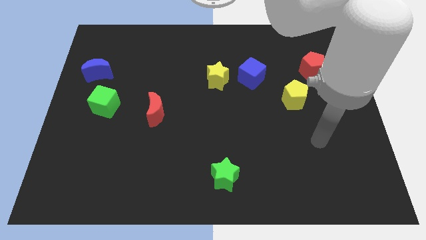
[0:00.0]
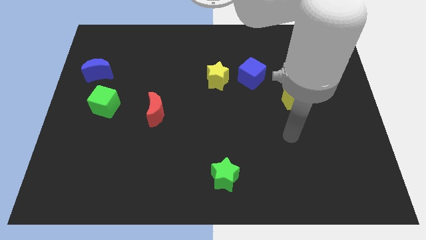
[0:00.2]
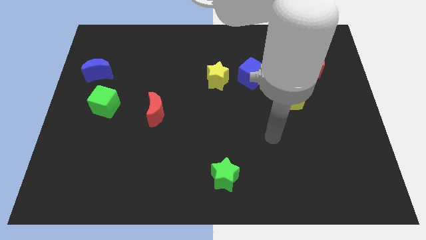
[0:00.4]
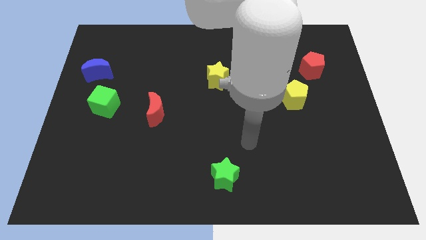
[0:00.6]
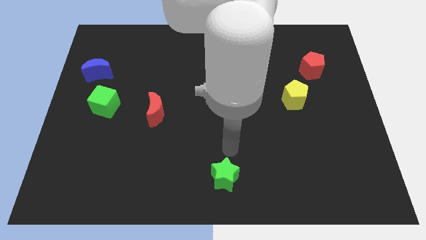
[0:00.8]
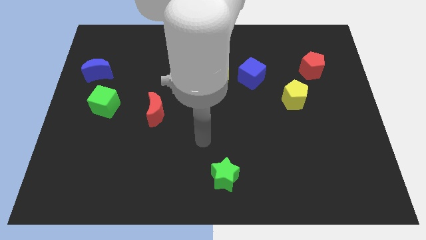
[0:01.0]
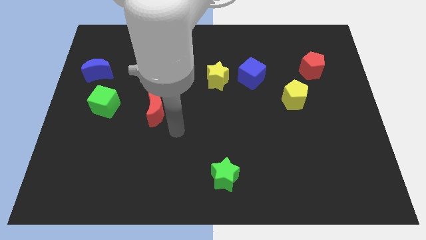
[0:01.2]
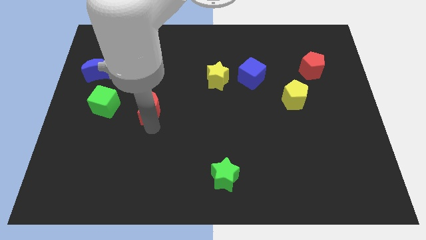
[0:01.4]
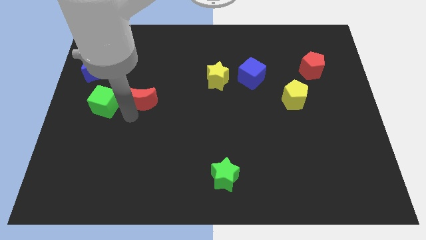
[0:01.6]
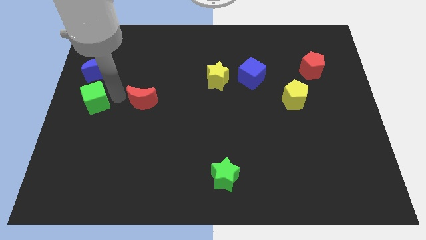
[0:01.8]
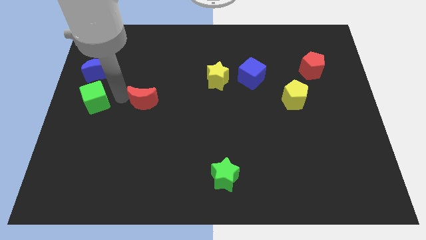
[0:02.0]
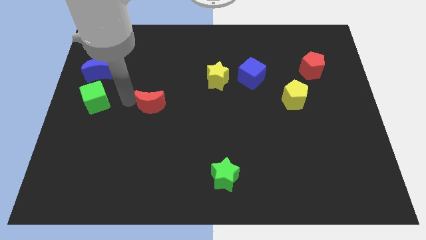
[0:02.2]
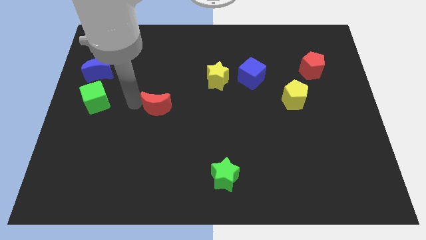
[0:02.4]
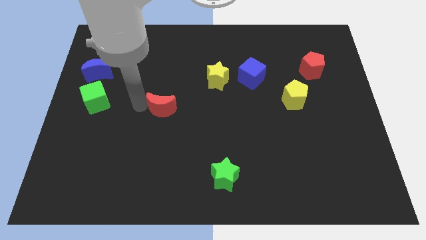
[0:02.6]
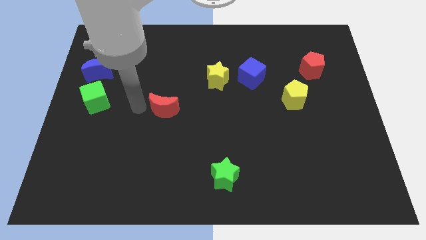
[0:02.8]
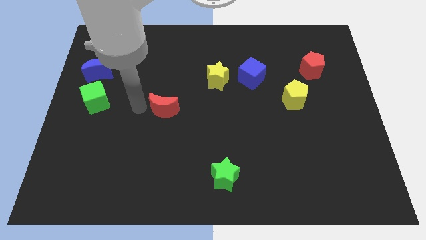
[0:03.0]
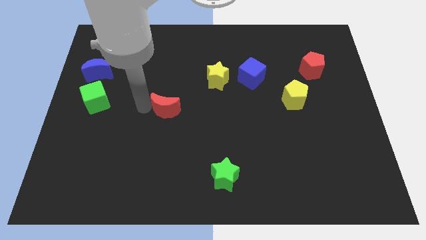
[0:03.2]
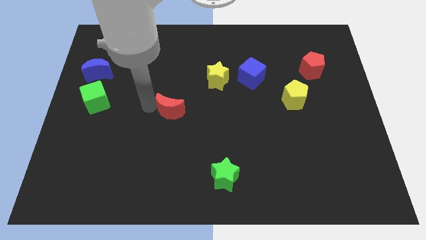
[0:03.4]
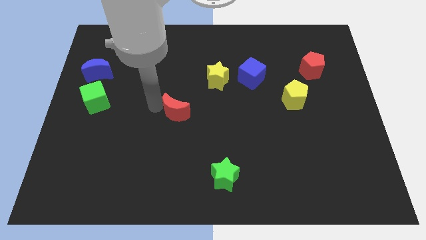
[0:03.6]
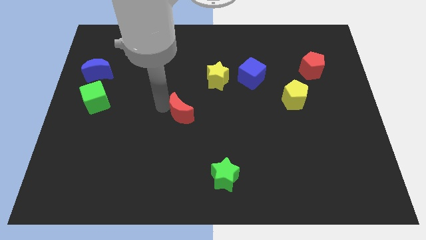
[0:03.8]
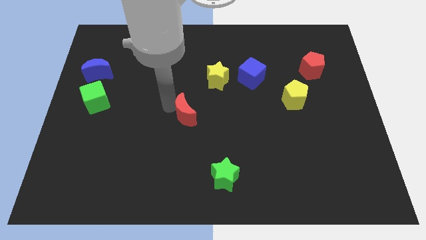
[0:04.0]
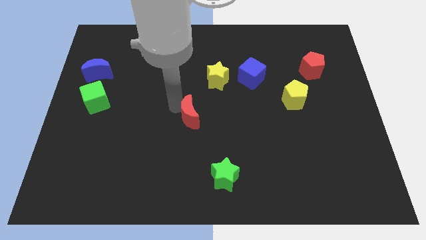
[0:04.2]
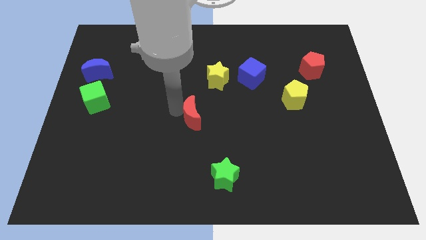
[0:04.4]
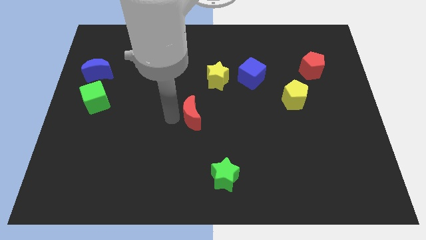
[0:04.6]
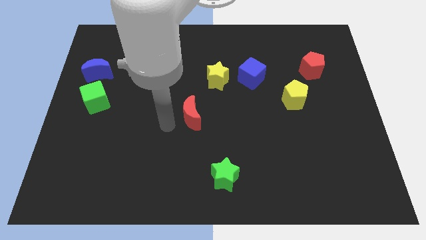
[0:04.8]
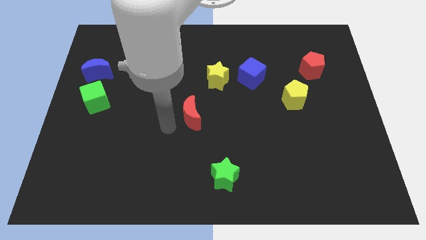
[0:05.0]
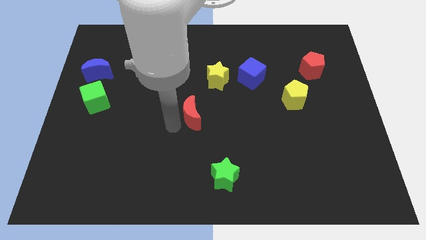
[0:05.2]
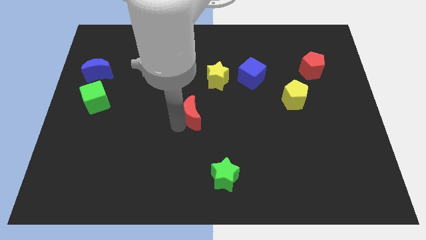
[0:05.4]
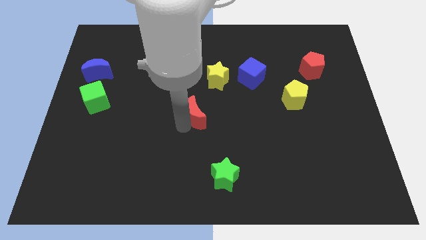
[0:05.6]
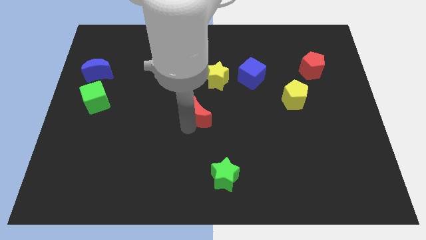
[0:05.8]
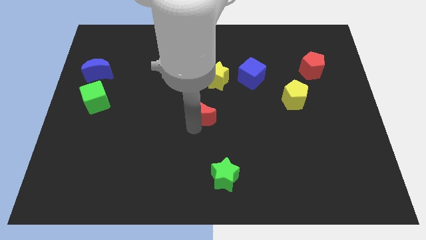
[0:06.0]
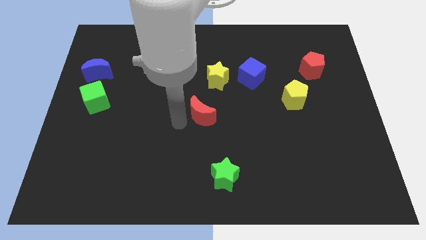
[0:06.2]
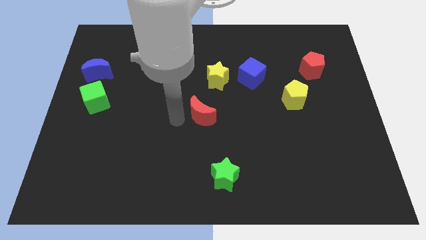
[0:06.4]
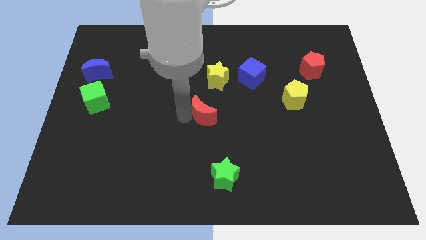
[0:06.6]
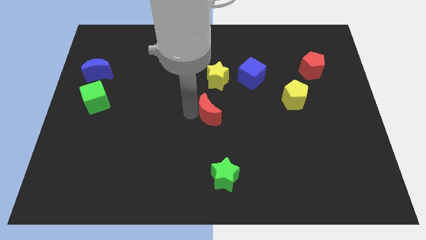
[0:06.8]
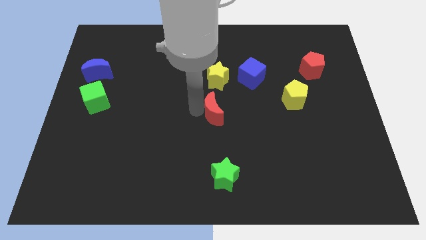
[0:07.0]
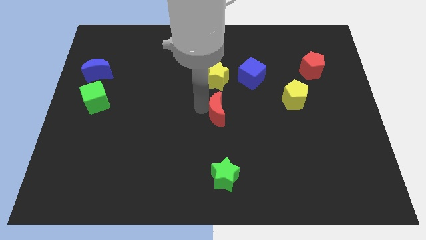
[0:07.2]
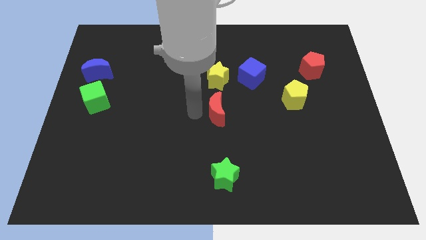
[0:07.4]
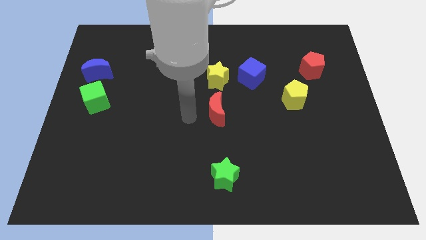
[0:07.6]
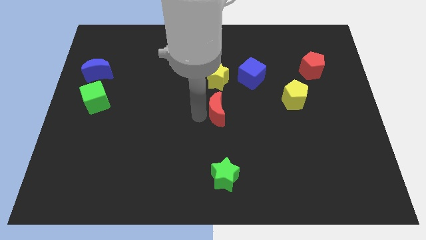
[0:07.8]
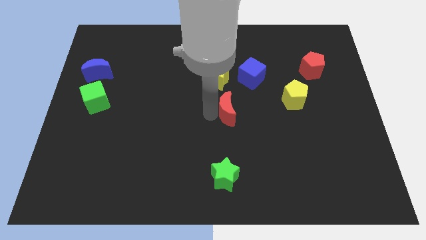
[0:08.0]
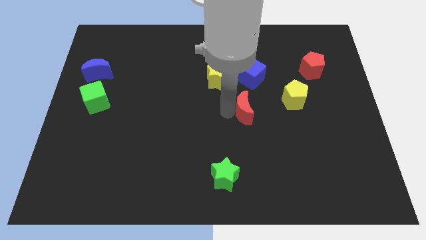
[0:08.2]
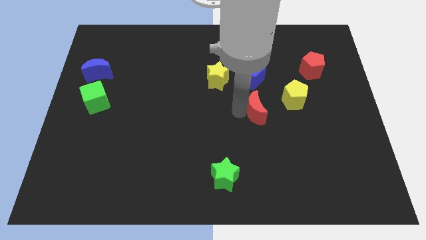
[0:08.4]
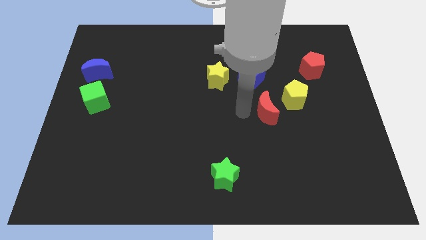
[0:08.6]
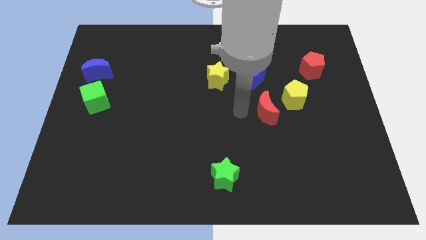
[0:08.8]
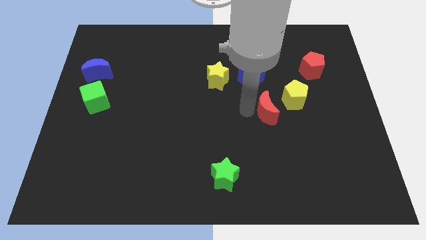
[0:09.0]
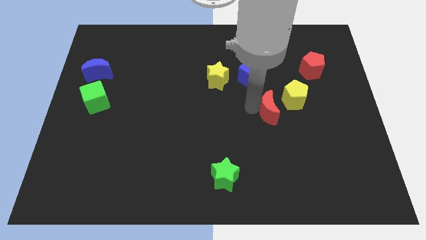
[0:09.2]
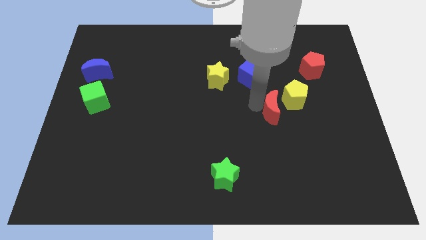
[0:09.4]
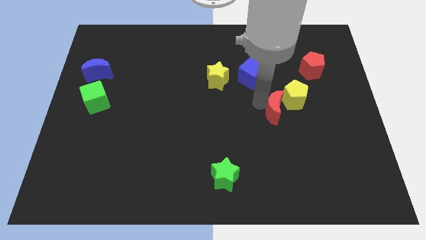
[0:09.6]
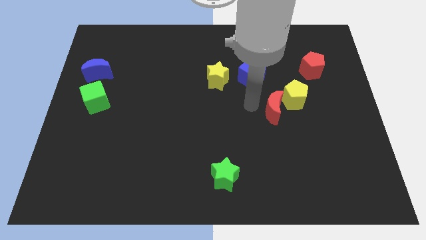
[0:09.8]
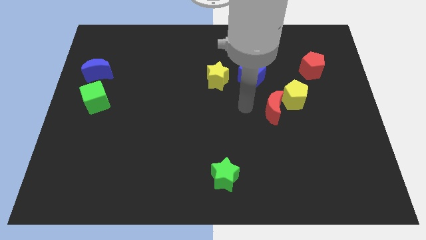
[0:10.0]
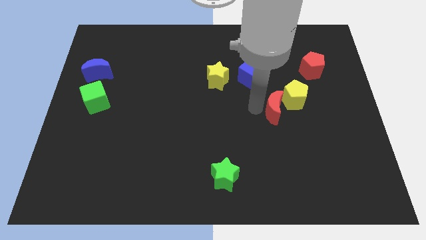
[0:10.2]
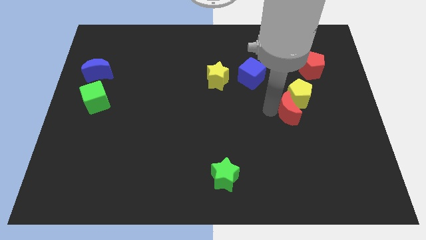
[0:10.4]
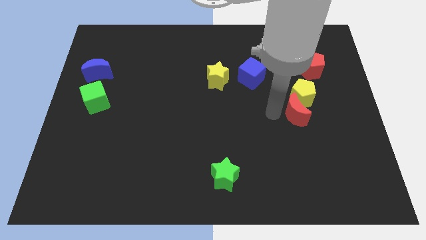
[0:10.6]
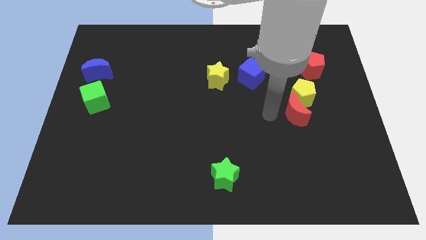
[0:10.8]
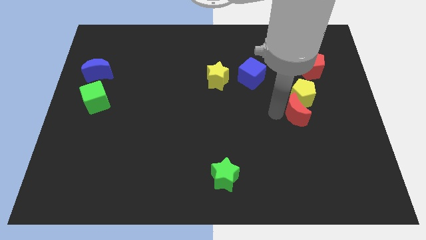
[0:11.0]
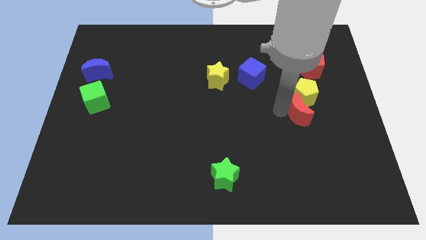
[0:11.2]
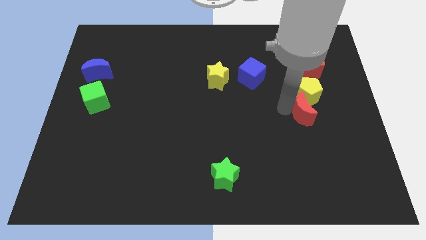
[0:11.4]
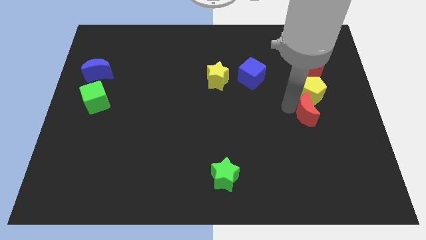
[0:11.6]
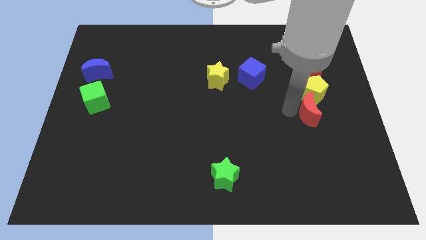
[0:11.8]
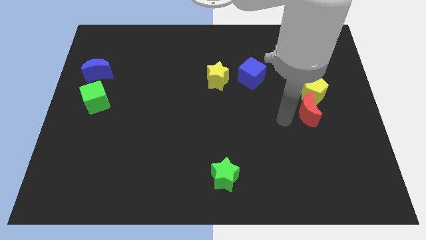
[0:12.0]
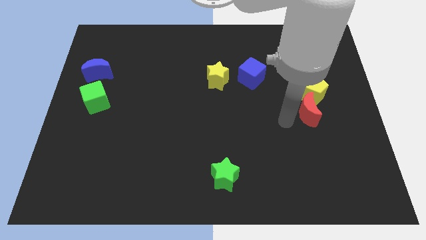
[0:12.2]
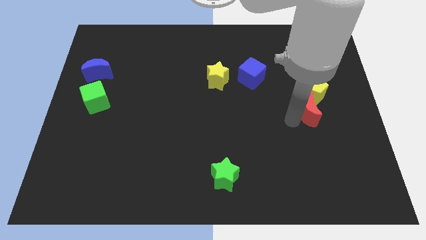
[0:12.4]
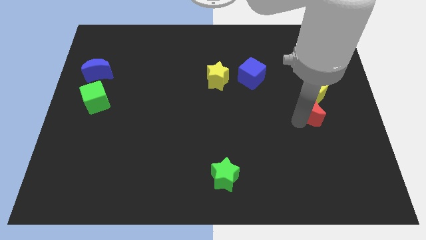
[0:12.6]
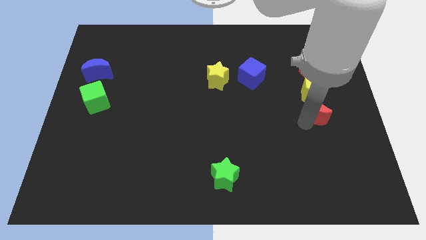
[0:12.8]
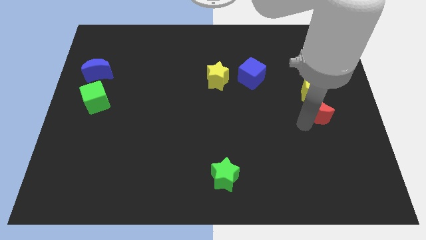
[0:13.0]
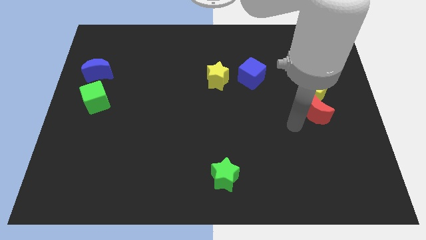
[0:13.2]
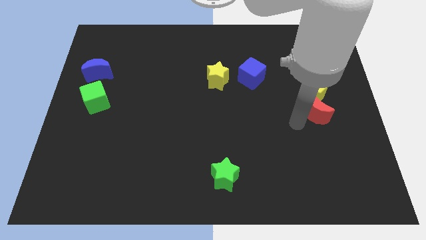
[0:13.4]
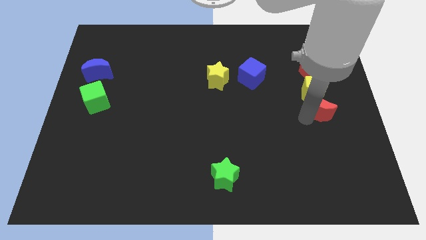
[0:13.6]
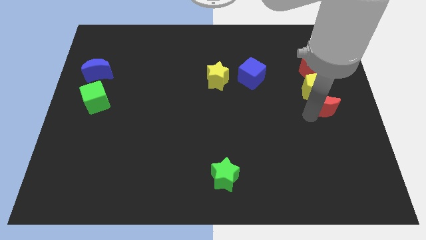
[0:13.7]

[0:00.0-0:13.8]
move the red moon to the right side
